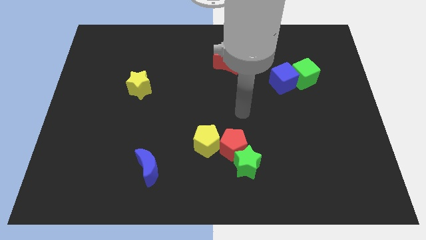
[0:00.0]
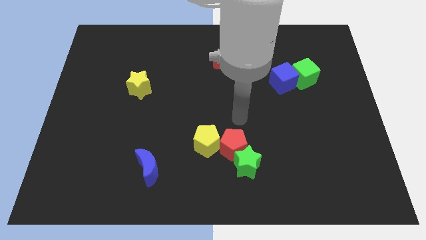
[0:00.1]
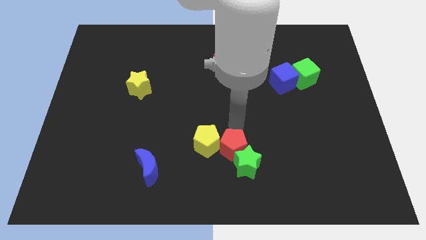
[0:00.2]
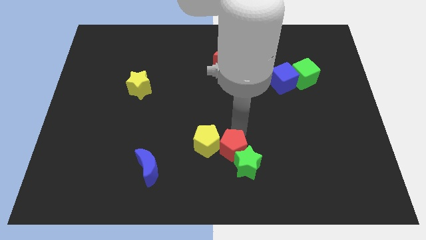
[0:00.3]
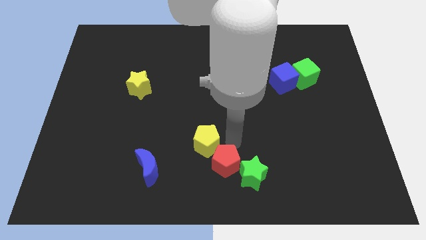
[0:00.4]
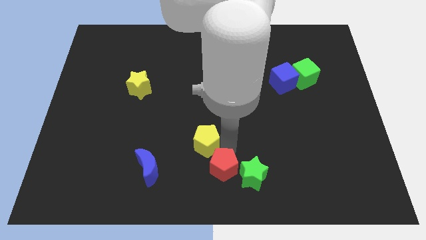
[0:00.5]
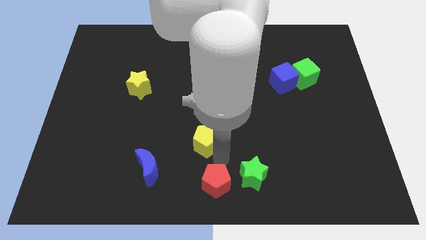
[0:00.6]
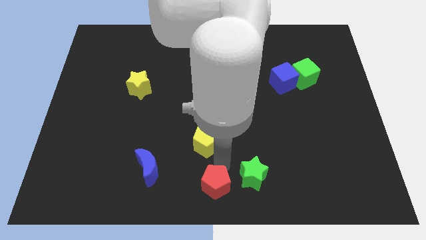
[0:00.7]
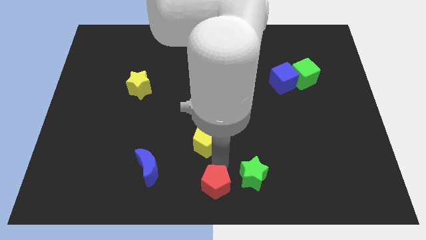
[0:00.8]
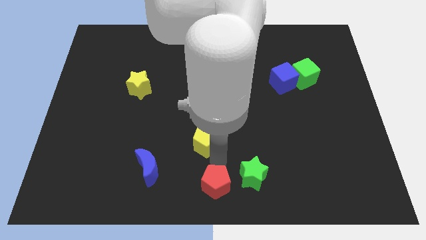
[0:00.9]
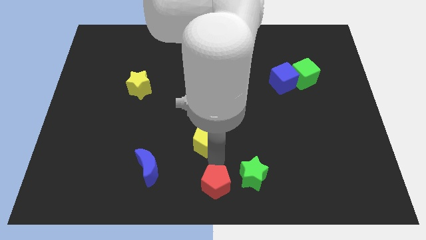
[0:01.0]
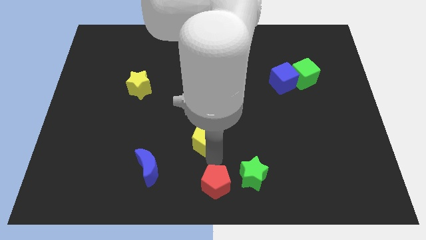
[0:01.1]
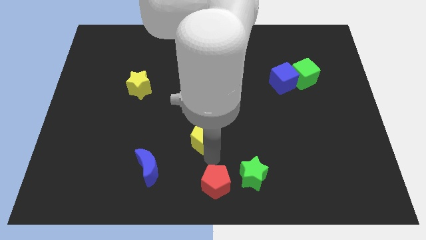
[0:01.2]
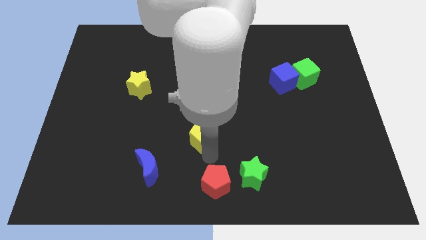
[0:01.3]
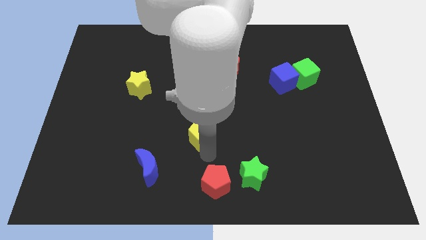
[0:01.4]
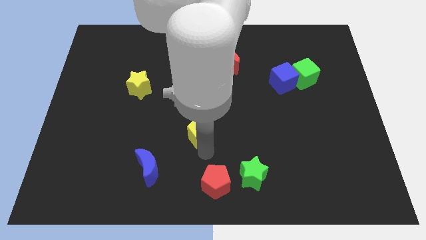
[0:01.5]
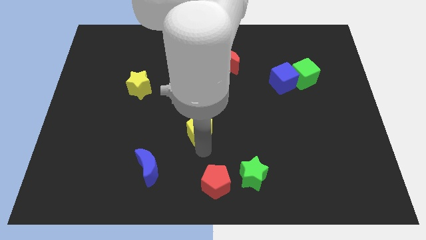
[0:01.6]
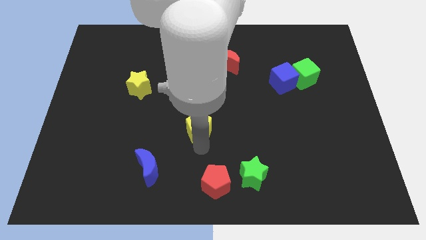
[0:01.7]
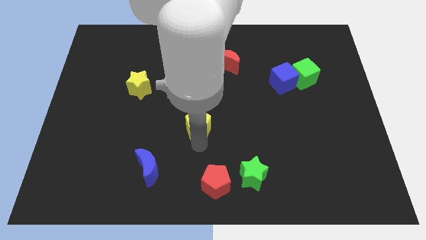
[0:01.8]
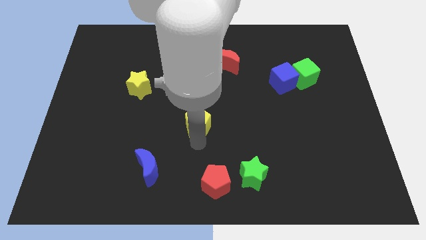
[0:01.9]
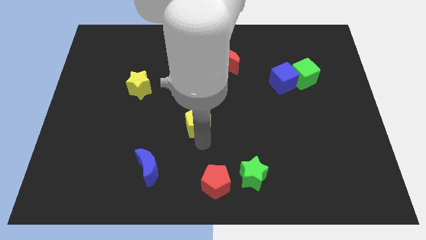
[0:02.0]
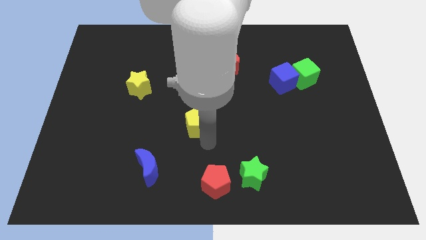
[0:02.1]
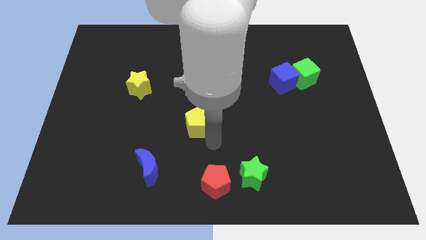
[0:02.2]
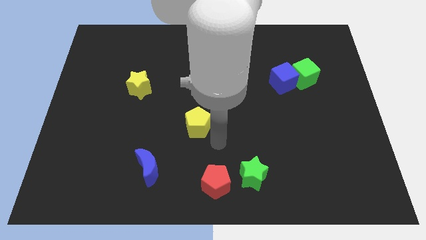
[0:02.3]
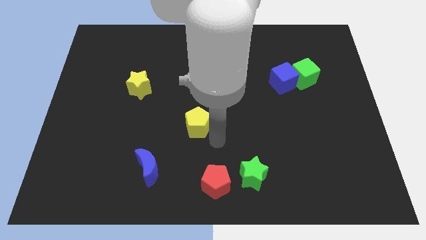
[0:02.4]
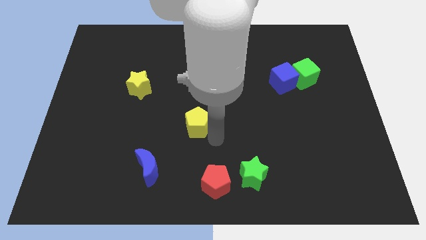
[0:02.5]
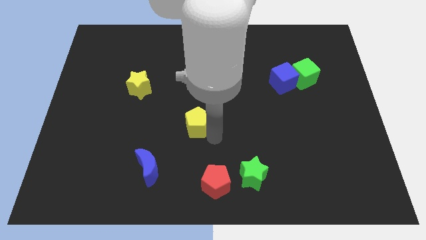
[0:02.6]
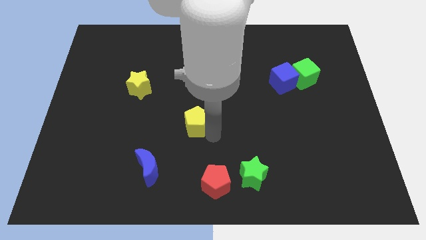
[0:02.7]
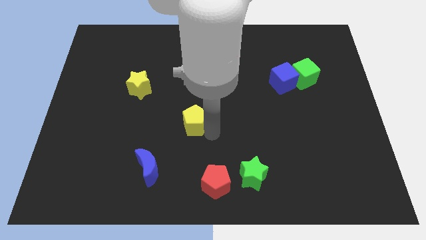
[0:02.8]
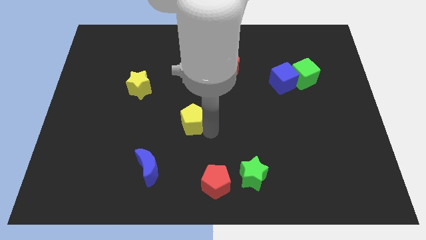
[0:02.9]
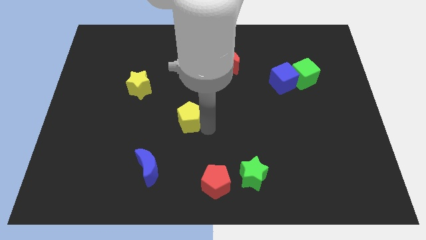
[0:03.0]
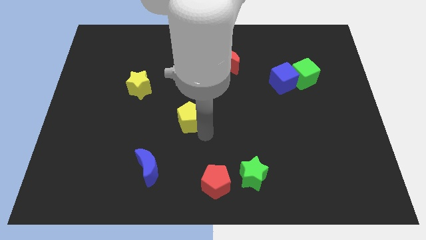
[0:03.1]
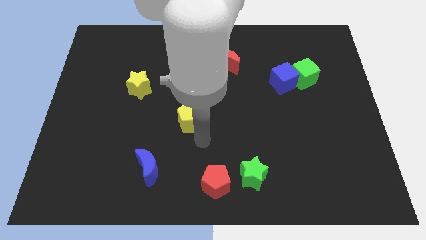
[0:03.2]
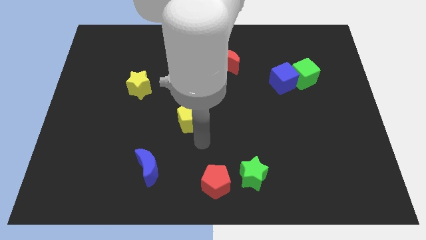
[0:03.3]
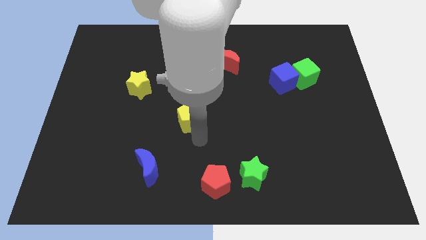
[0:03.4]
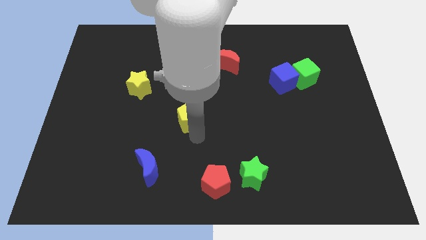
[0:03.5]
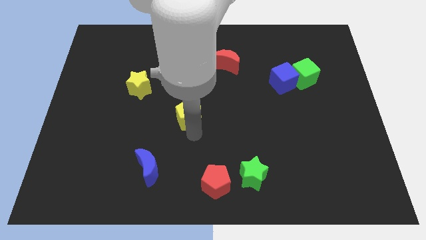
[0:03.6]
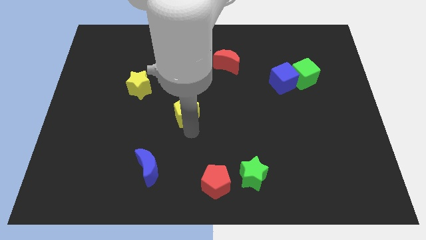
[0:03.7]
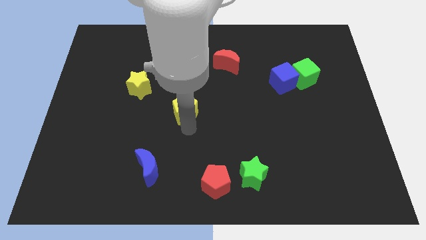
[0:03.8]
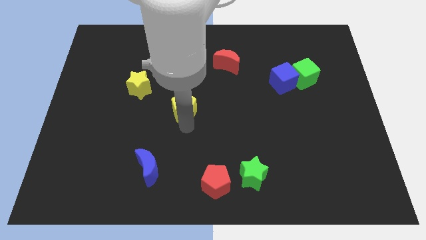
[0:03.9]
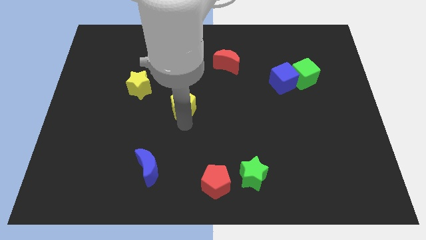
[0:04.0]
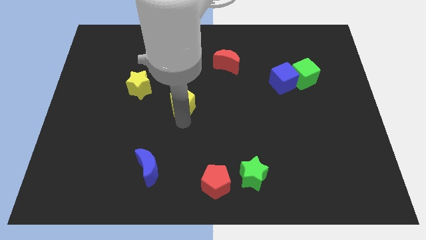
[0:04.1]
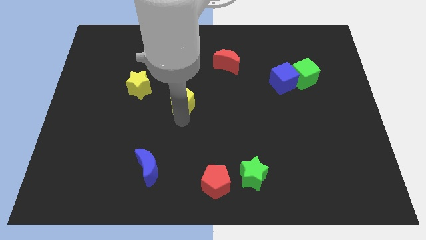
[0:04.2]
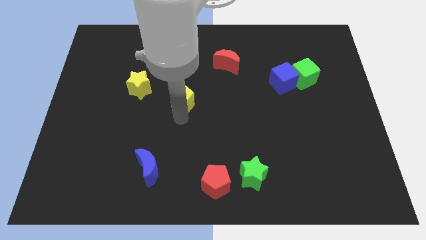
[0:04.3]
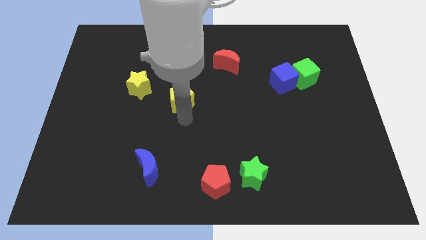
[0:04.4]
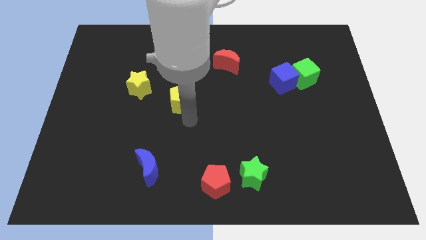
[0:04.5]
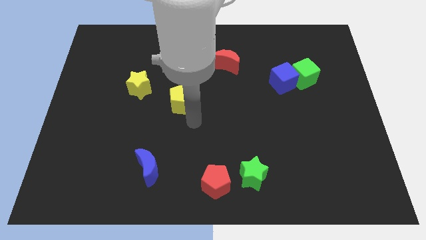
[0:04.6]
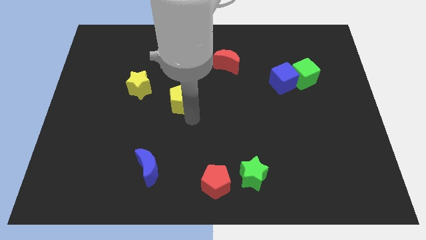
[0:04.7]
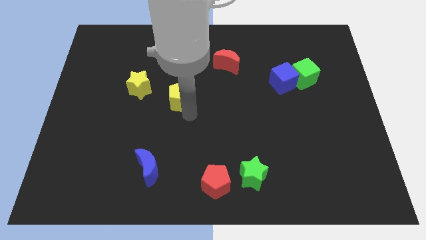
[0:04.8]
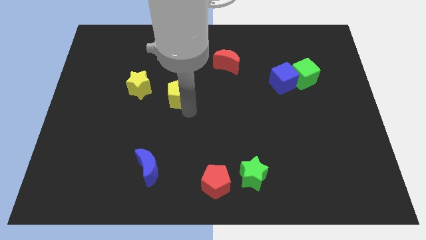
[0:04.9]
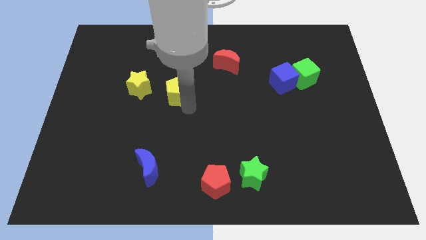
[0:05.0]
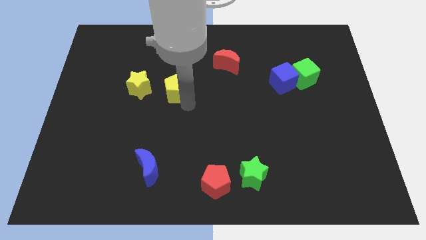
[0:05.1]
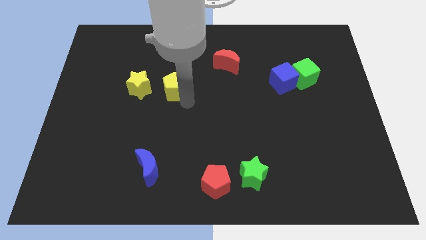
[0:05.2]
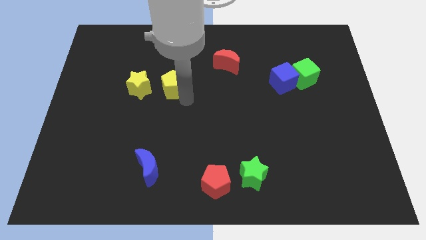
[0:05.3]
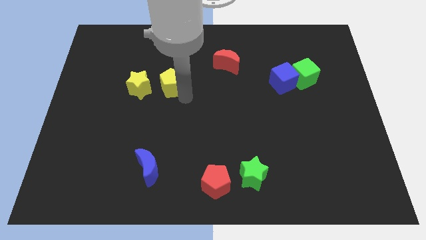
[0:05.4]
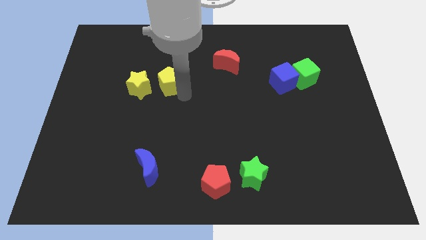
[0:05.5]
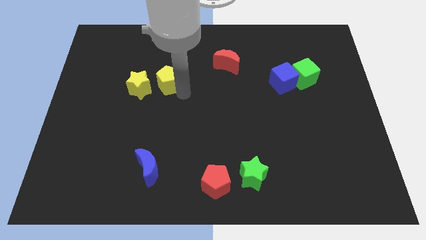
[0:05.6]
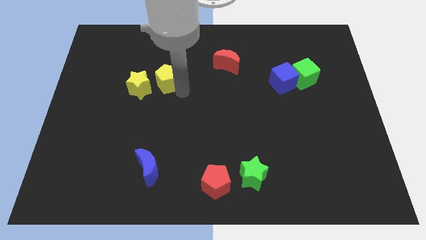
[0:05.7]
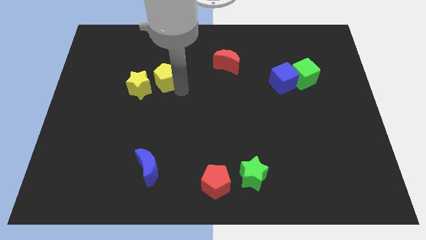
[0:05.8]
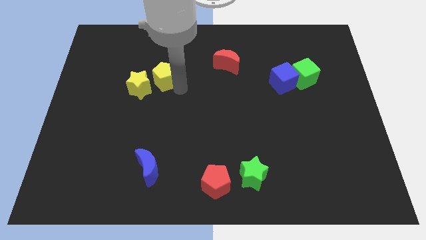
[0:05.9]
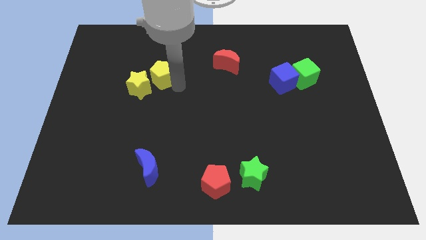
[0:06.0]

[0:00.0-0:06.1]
slide the yellow pentagon upwards and left

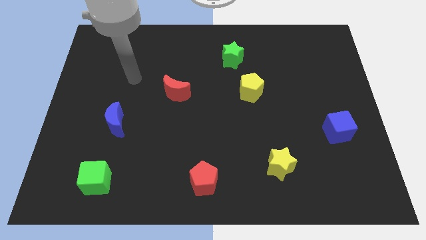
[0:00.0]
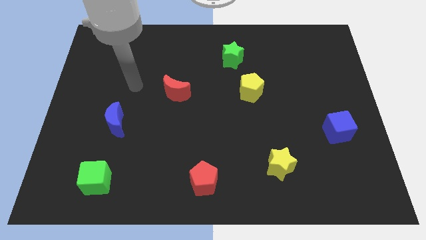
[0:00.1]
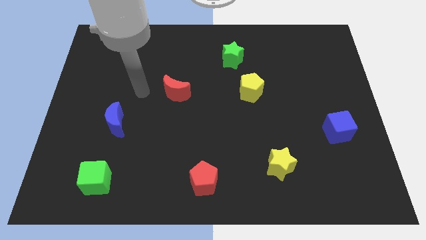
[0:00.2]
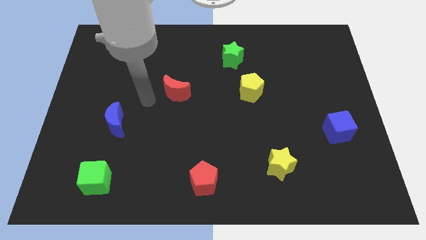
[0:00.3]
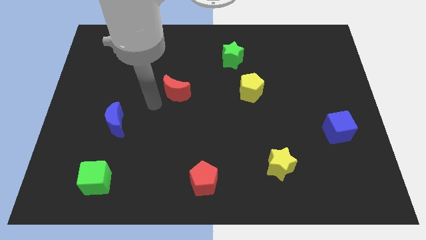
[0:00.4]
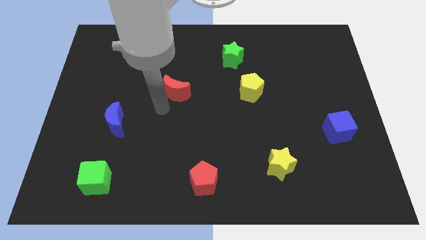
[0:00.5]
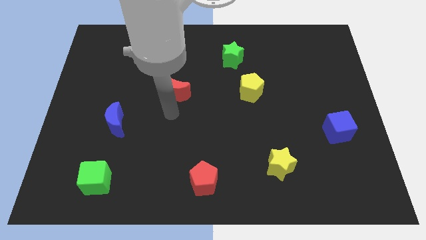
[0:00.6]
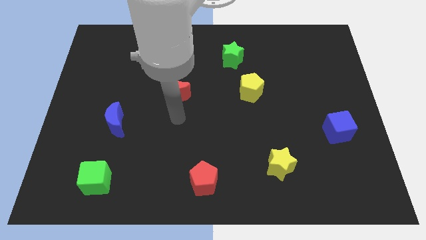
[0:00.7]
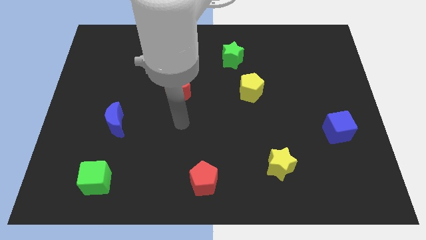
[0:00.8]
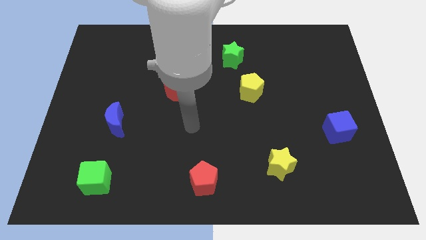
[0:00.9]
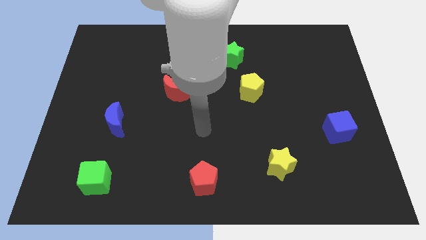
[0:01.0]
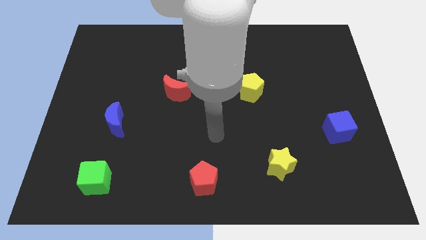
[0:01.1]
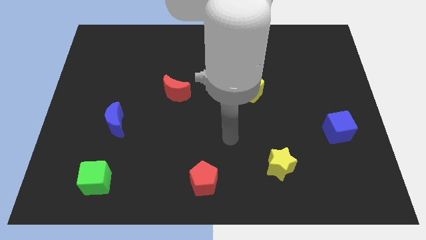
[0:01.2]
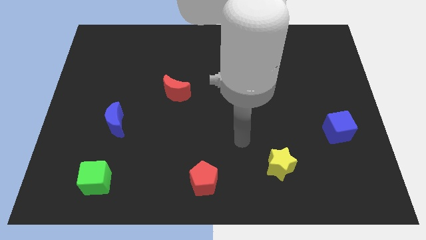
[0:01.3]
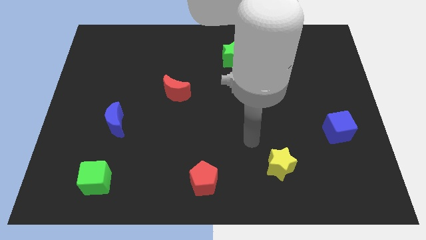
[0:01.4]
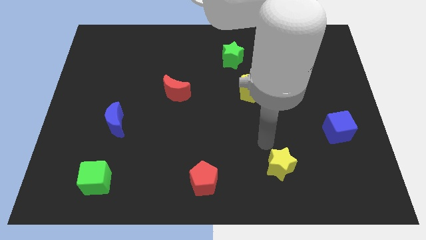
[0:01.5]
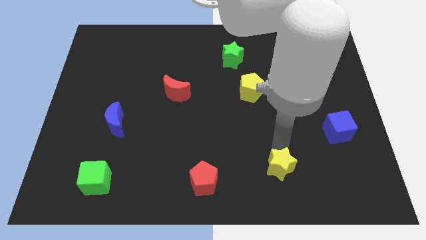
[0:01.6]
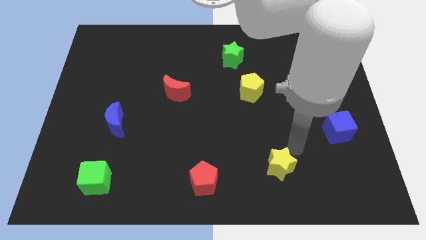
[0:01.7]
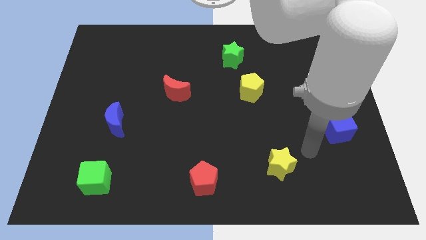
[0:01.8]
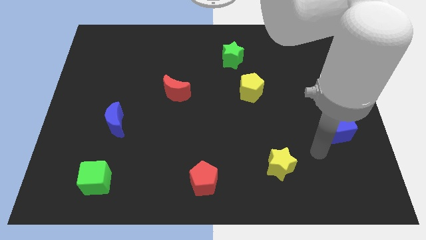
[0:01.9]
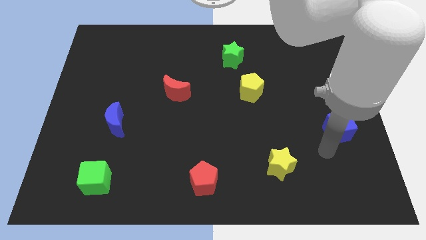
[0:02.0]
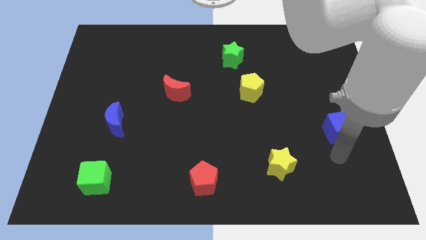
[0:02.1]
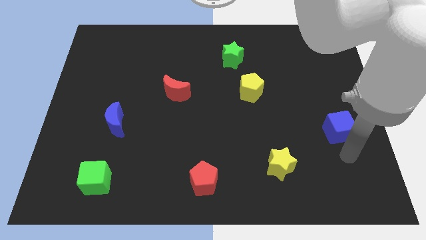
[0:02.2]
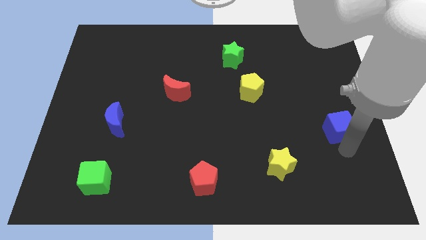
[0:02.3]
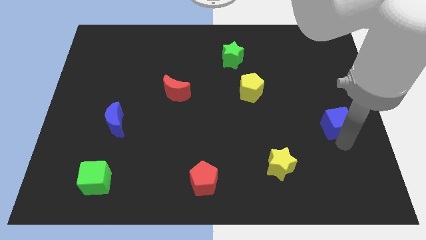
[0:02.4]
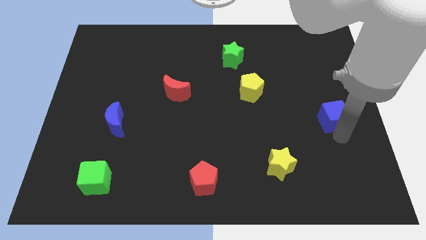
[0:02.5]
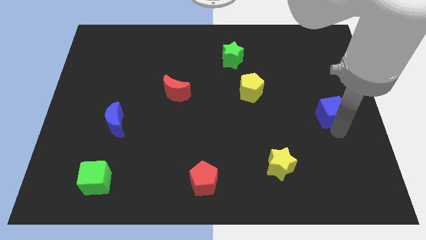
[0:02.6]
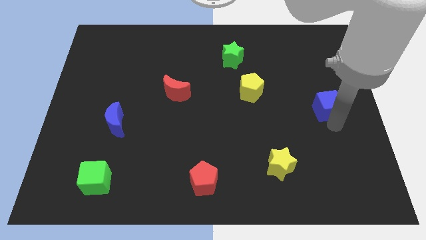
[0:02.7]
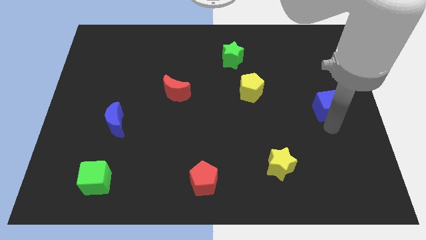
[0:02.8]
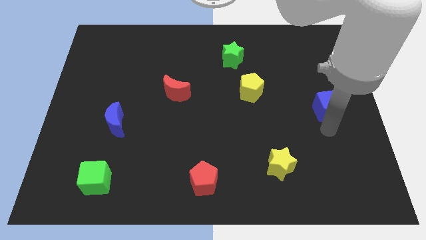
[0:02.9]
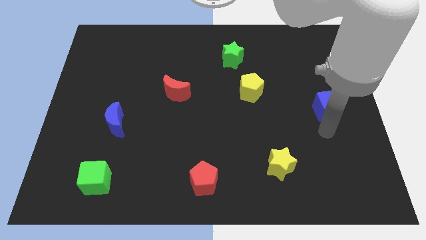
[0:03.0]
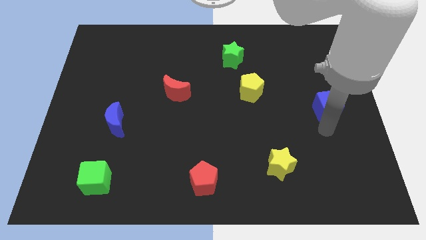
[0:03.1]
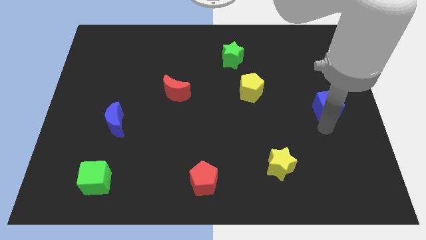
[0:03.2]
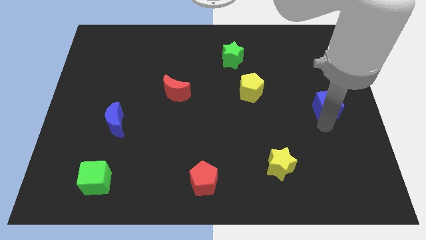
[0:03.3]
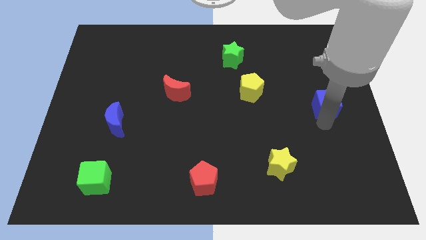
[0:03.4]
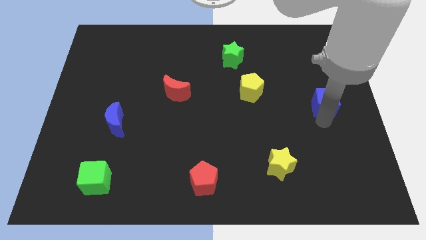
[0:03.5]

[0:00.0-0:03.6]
slightly slide the blue cube up
